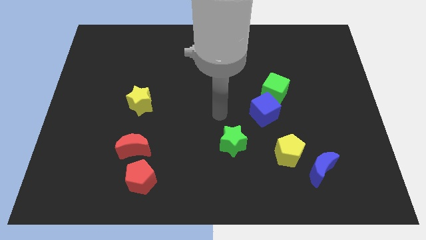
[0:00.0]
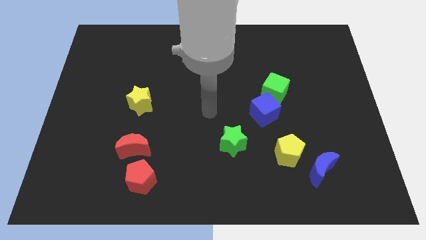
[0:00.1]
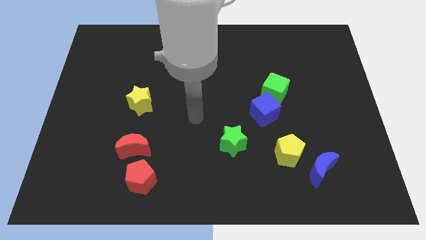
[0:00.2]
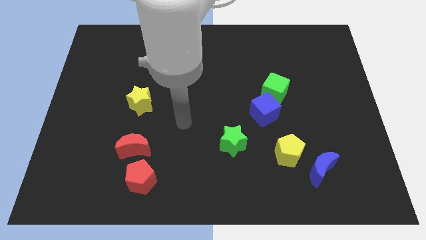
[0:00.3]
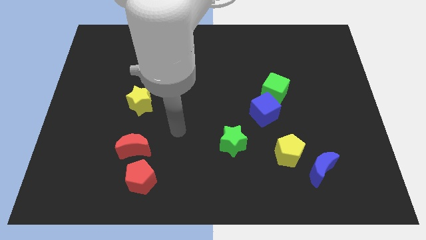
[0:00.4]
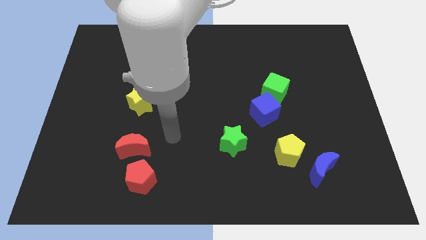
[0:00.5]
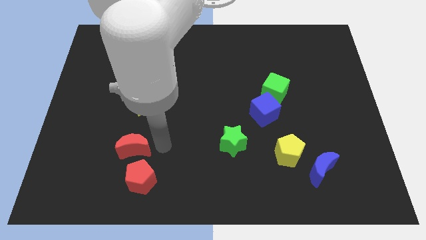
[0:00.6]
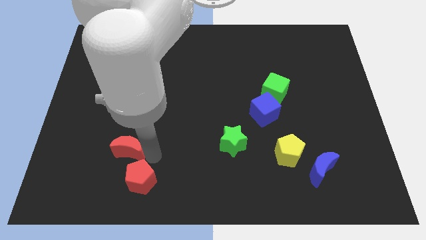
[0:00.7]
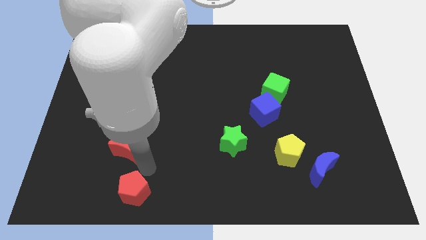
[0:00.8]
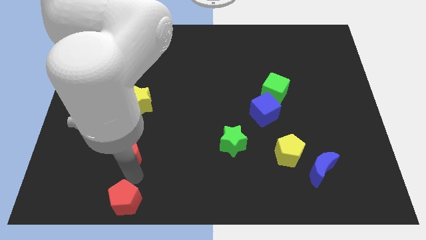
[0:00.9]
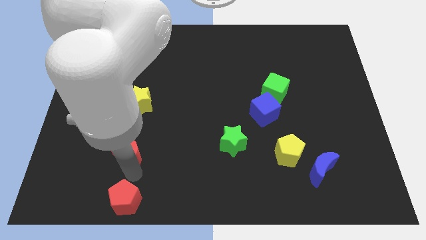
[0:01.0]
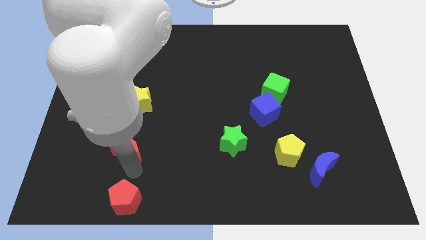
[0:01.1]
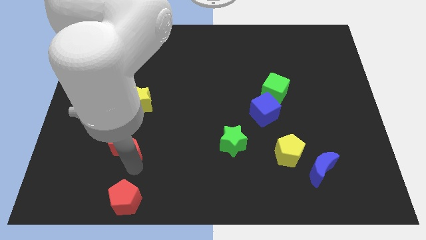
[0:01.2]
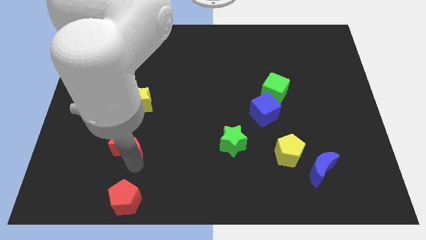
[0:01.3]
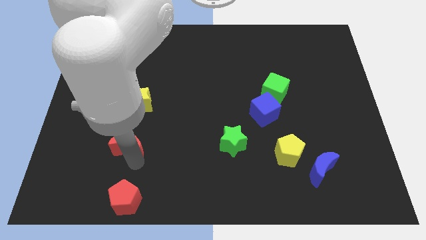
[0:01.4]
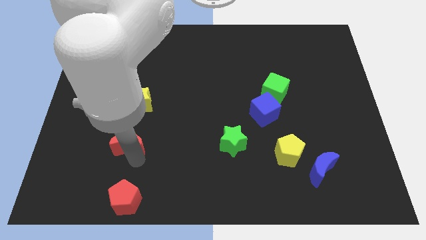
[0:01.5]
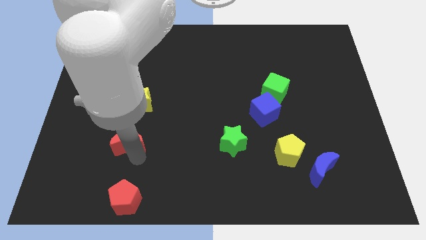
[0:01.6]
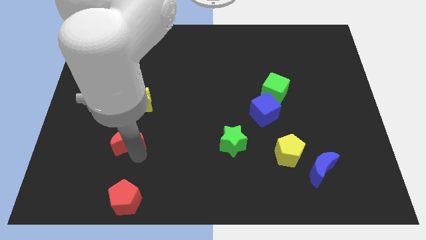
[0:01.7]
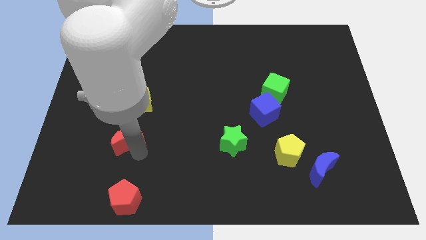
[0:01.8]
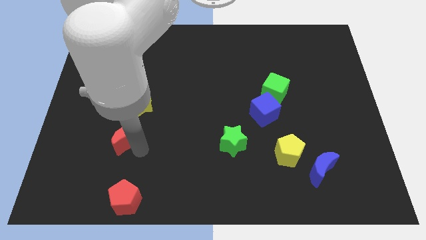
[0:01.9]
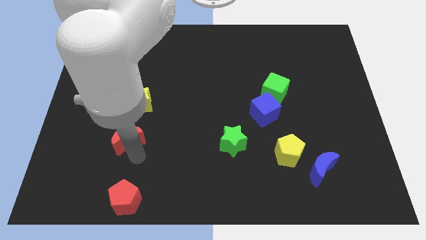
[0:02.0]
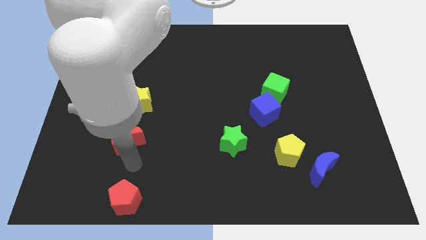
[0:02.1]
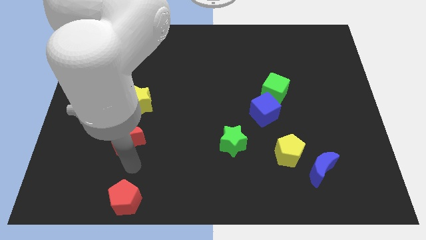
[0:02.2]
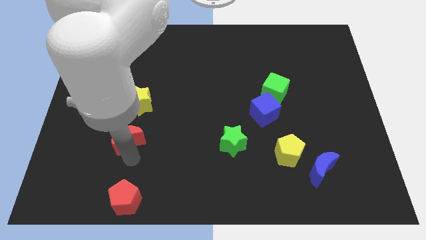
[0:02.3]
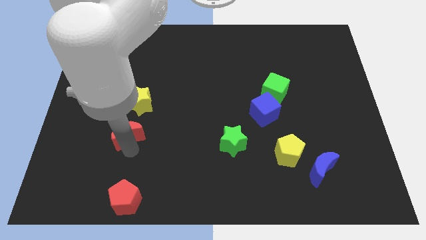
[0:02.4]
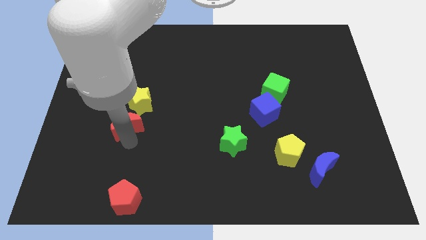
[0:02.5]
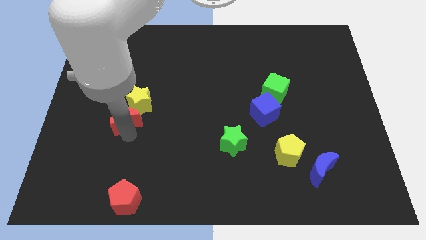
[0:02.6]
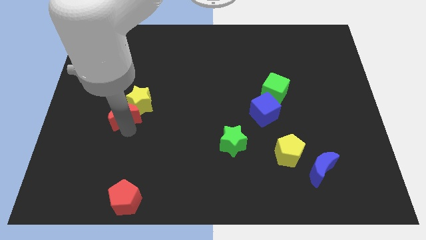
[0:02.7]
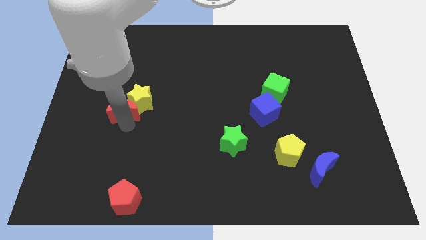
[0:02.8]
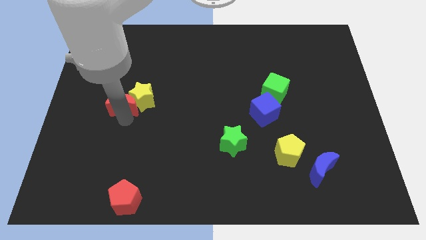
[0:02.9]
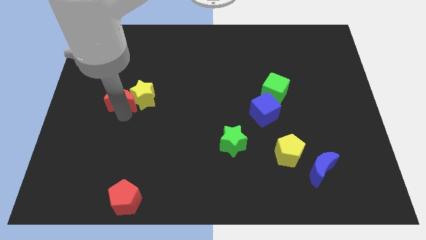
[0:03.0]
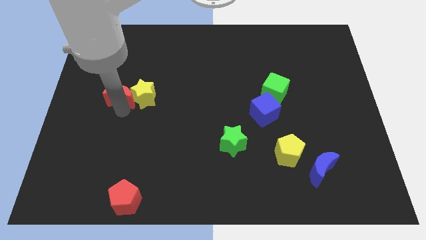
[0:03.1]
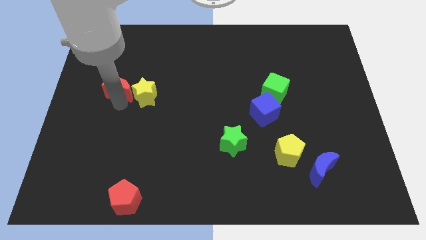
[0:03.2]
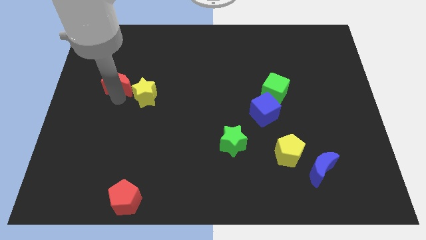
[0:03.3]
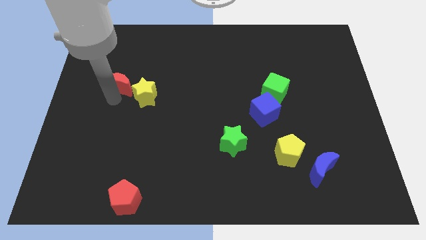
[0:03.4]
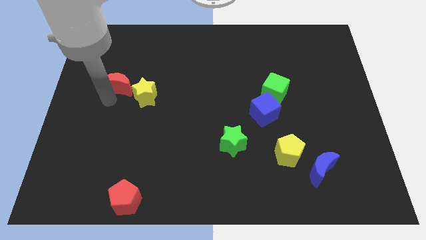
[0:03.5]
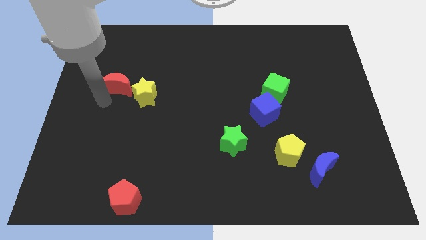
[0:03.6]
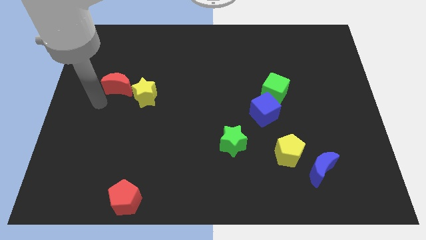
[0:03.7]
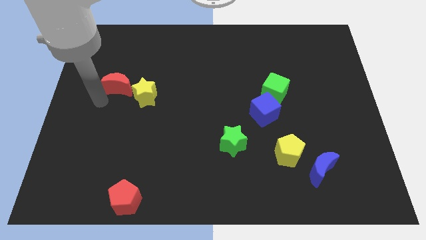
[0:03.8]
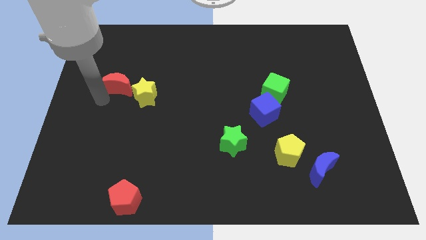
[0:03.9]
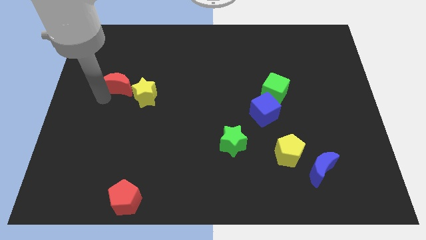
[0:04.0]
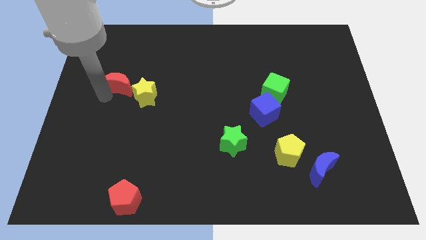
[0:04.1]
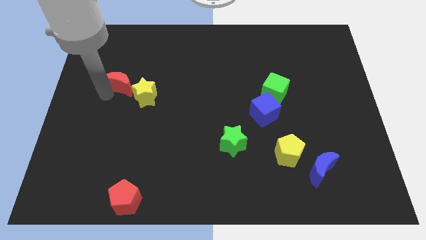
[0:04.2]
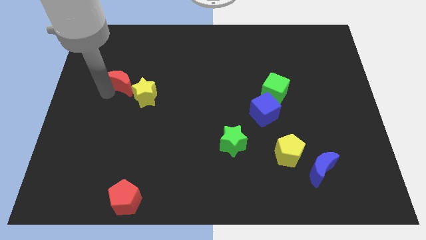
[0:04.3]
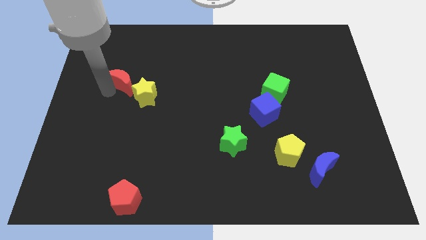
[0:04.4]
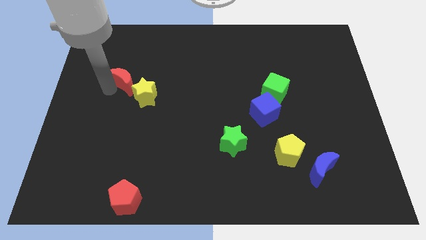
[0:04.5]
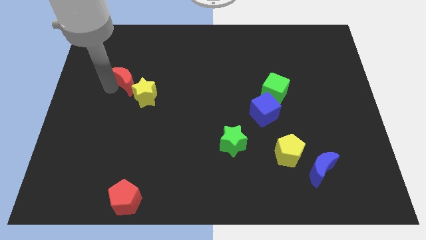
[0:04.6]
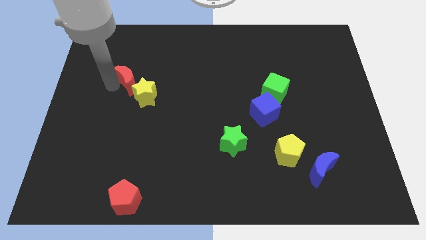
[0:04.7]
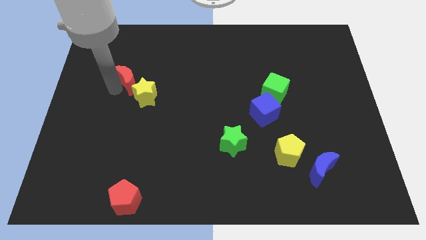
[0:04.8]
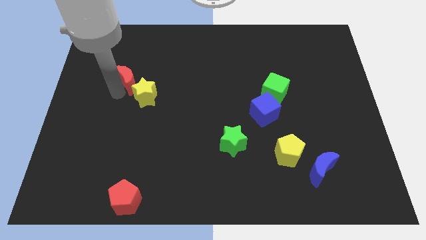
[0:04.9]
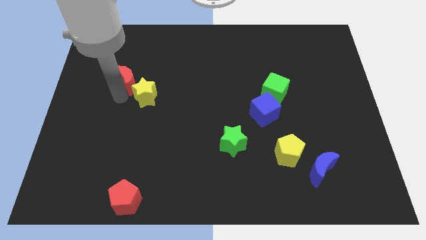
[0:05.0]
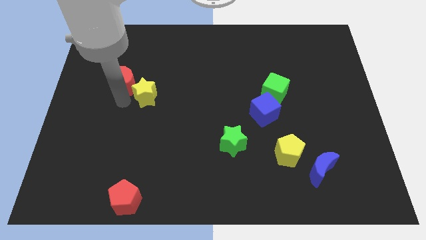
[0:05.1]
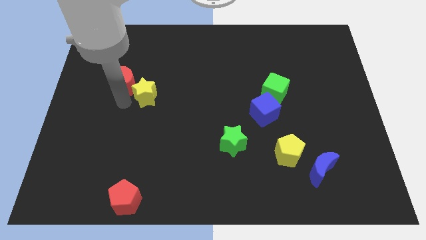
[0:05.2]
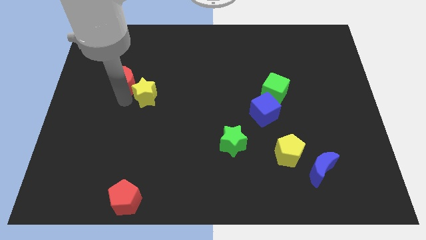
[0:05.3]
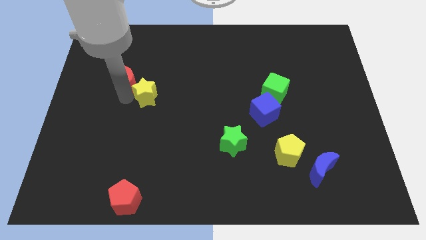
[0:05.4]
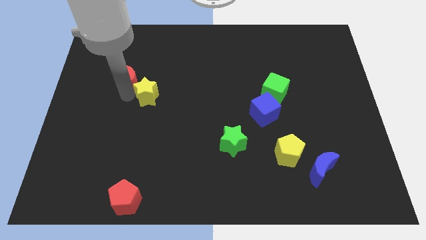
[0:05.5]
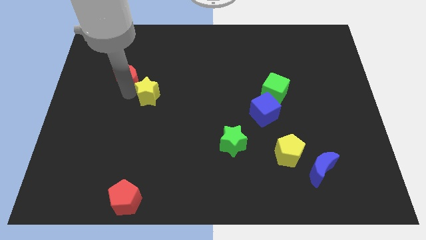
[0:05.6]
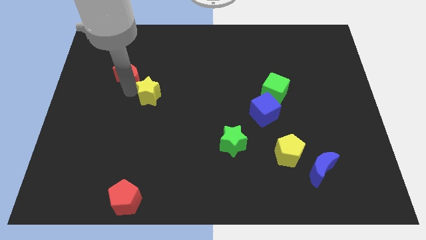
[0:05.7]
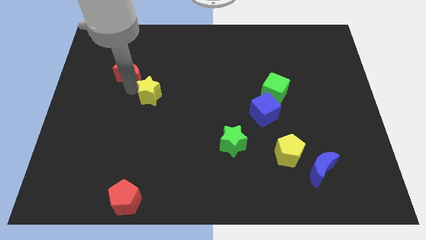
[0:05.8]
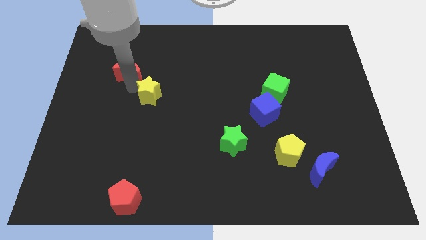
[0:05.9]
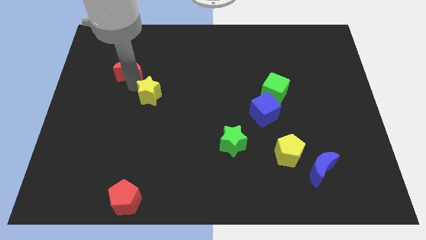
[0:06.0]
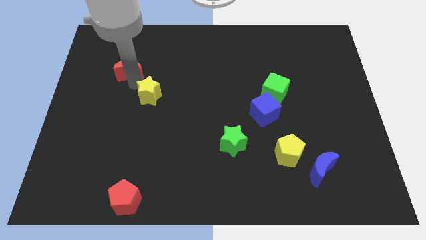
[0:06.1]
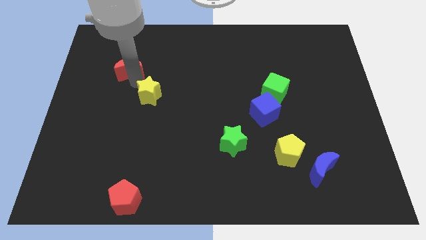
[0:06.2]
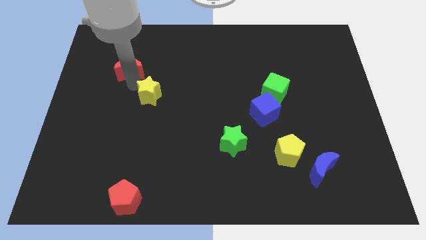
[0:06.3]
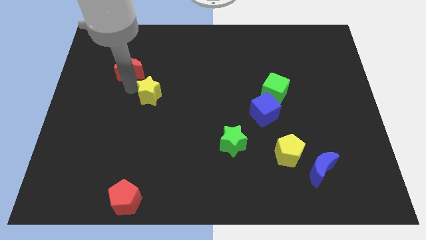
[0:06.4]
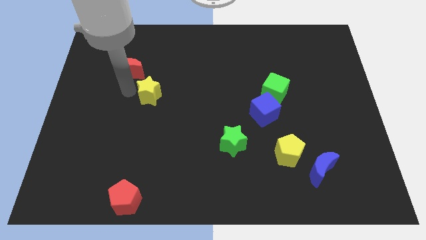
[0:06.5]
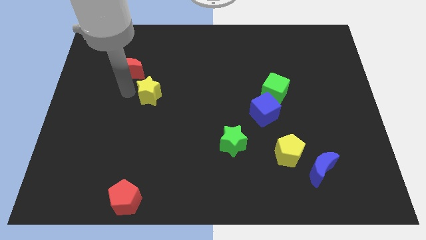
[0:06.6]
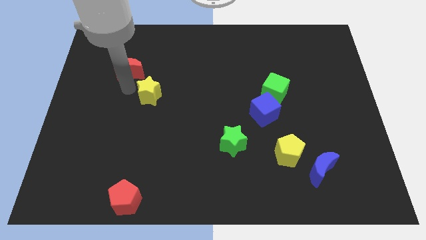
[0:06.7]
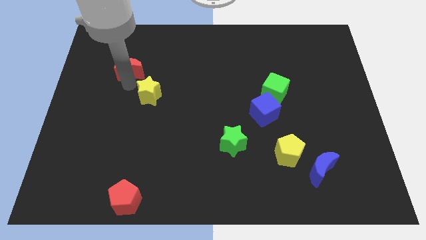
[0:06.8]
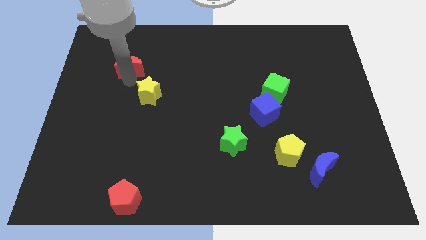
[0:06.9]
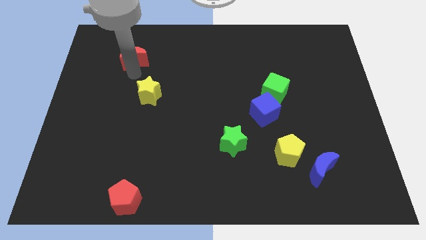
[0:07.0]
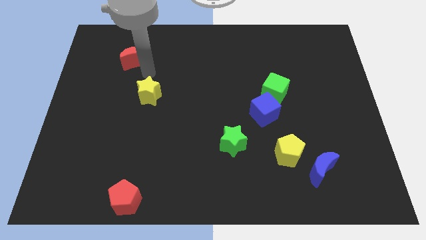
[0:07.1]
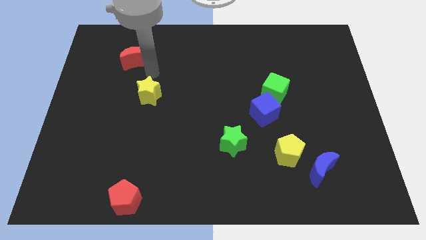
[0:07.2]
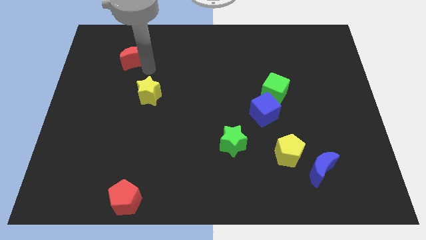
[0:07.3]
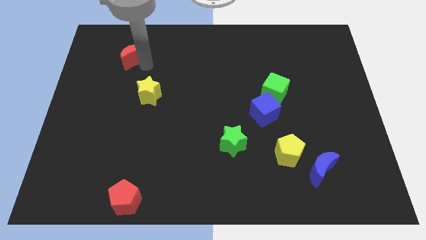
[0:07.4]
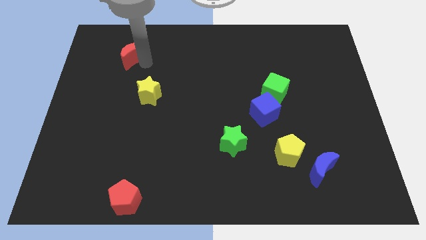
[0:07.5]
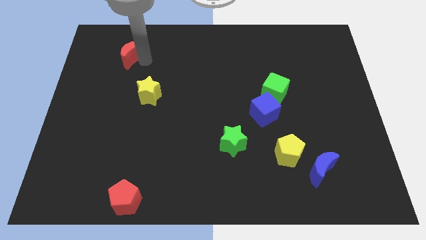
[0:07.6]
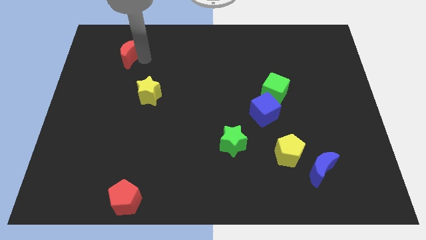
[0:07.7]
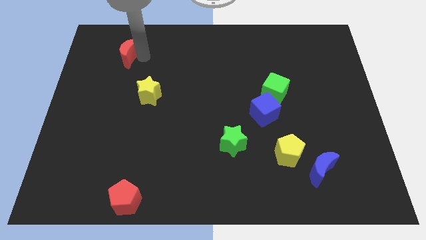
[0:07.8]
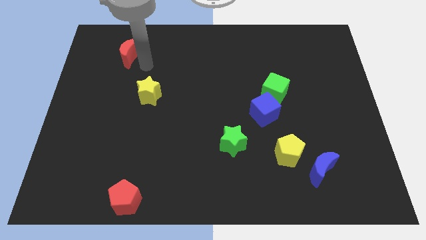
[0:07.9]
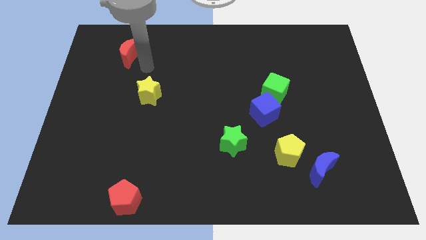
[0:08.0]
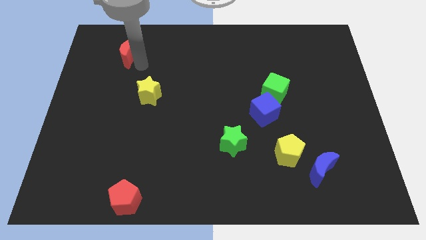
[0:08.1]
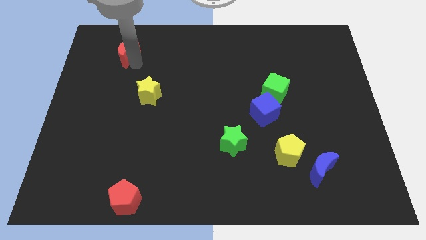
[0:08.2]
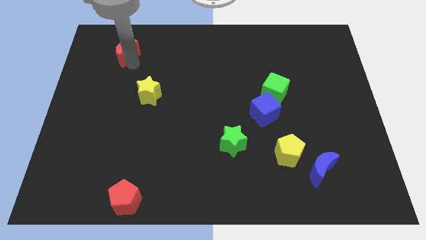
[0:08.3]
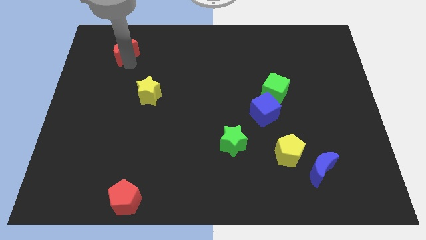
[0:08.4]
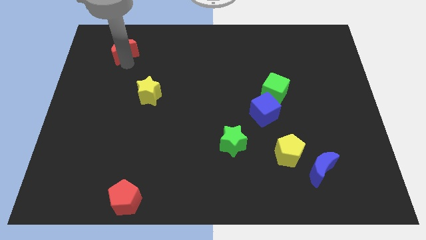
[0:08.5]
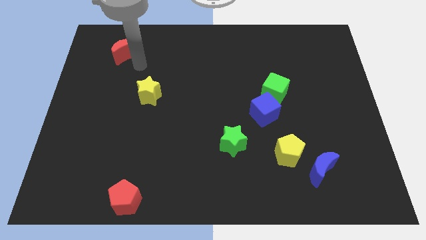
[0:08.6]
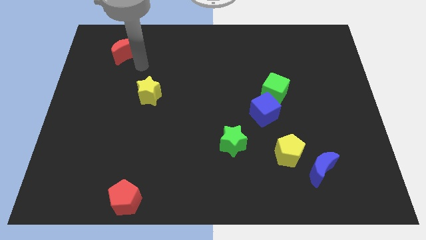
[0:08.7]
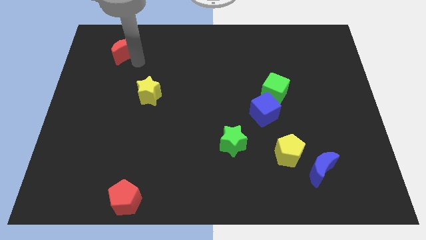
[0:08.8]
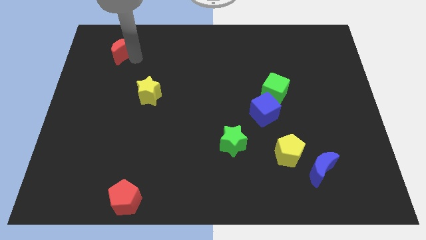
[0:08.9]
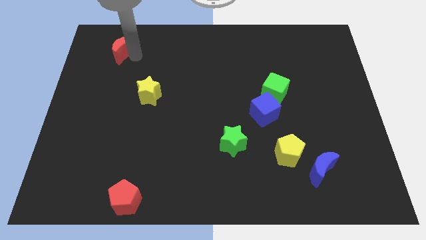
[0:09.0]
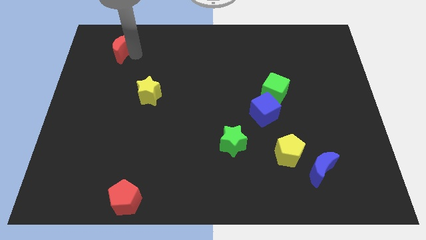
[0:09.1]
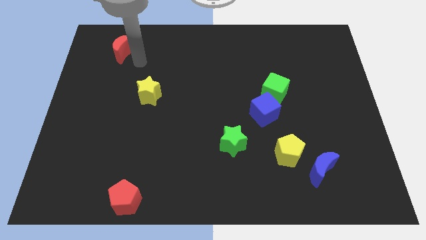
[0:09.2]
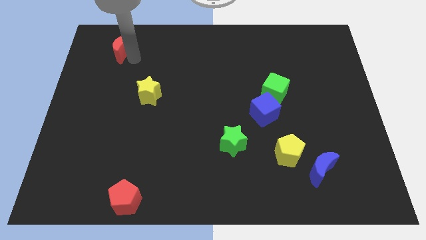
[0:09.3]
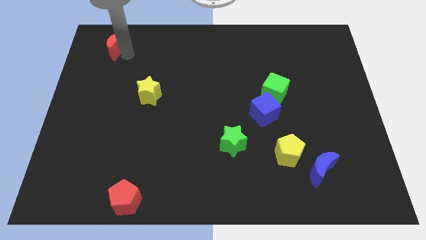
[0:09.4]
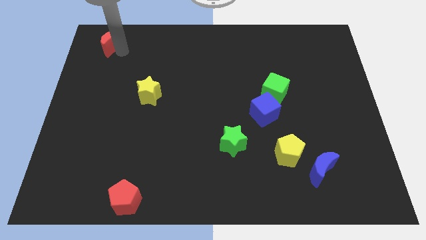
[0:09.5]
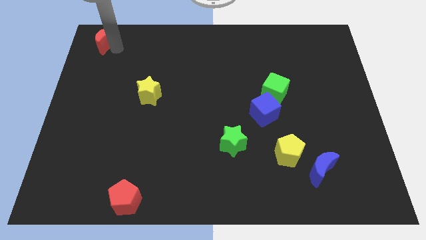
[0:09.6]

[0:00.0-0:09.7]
move the red moon to the top left corner
